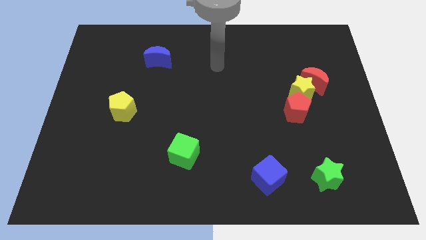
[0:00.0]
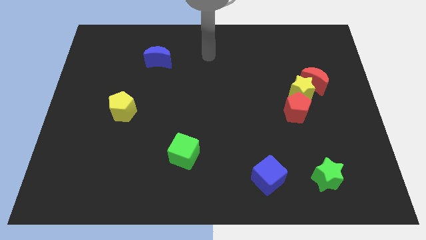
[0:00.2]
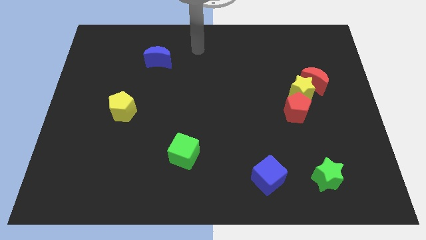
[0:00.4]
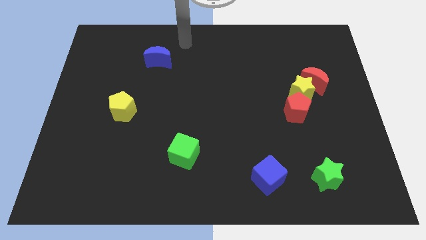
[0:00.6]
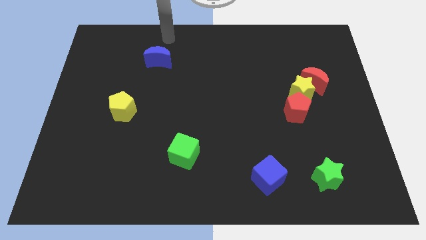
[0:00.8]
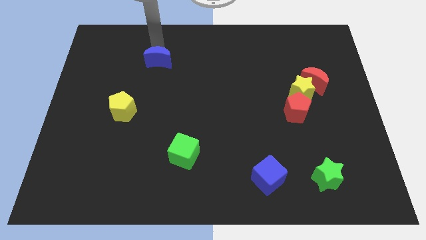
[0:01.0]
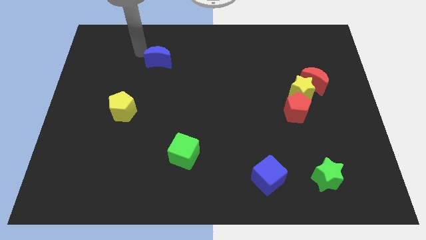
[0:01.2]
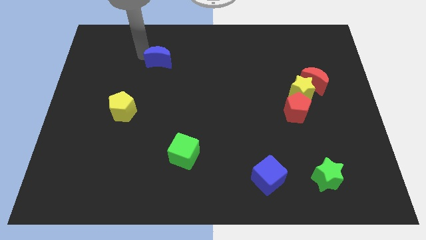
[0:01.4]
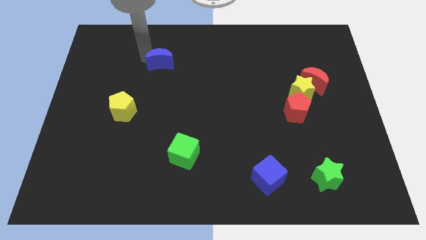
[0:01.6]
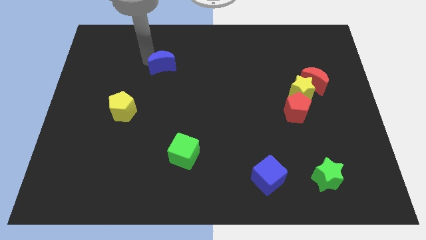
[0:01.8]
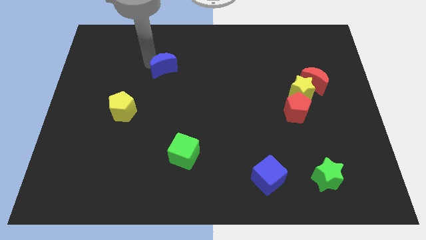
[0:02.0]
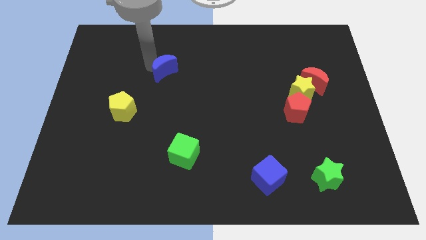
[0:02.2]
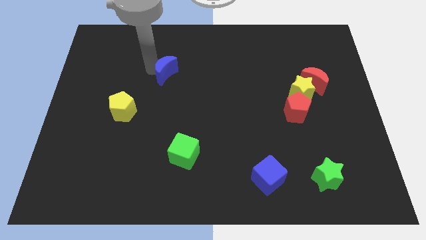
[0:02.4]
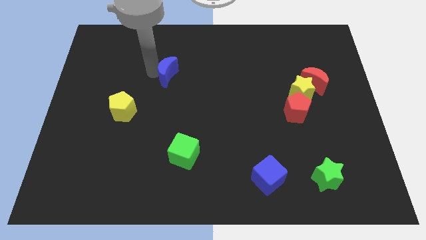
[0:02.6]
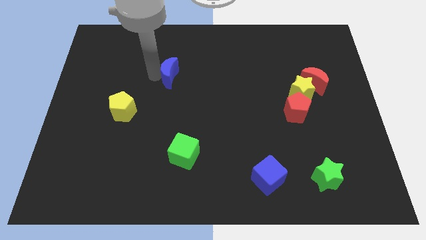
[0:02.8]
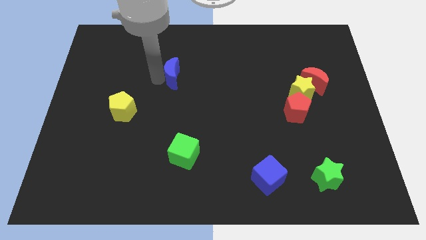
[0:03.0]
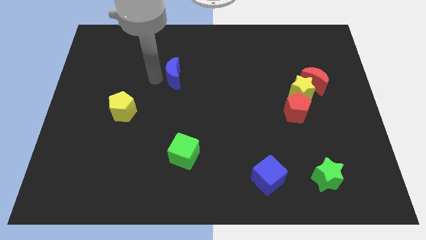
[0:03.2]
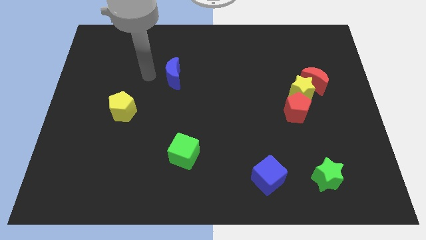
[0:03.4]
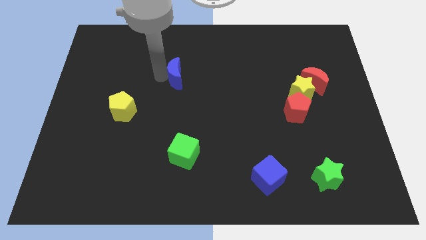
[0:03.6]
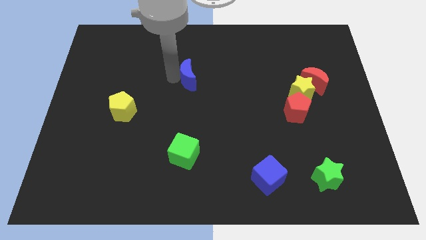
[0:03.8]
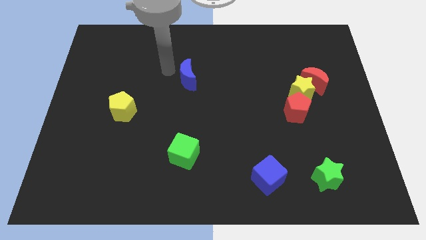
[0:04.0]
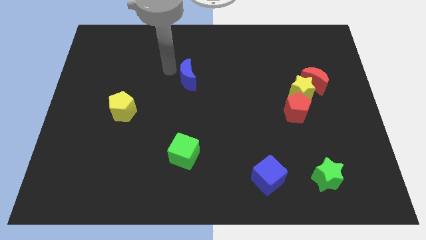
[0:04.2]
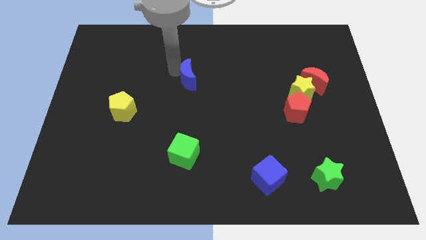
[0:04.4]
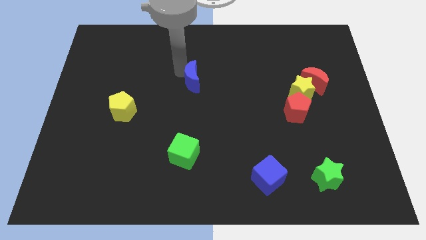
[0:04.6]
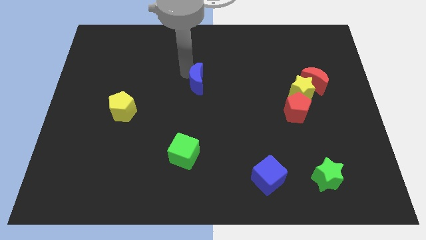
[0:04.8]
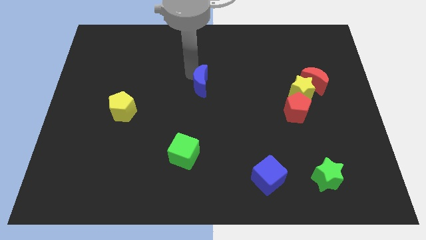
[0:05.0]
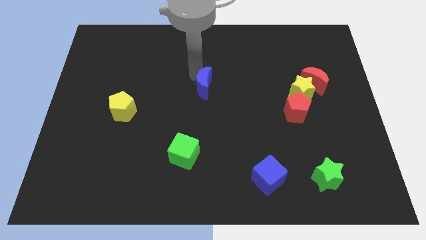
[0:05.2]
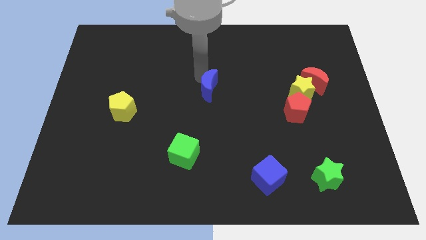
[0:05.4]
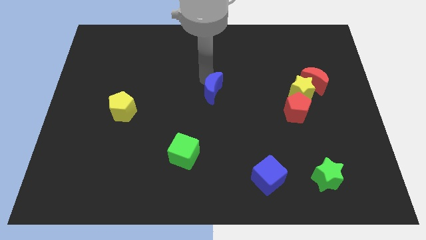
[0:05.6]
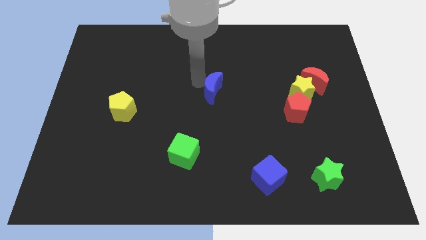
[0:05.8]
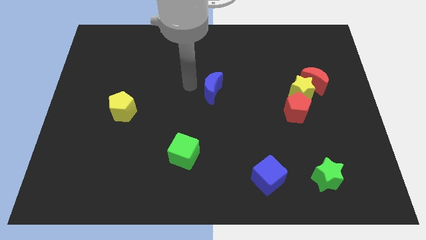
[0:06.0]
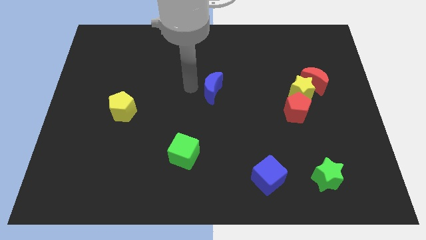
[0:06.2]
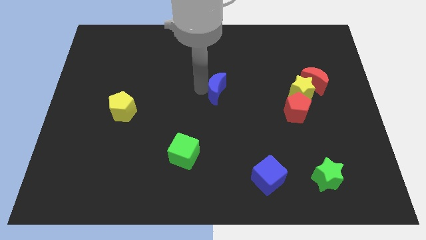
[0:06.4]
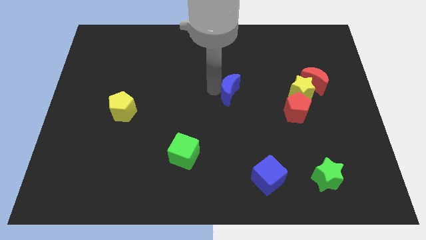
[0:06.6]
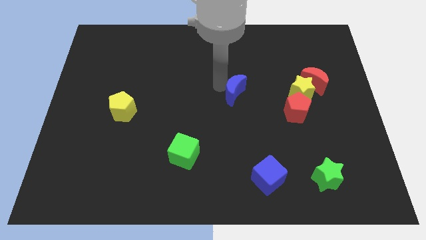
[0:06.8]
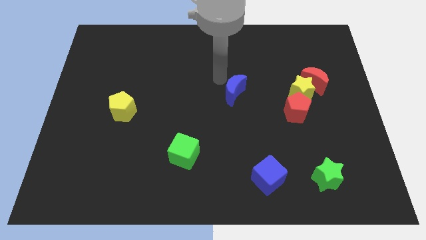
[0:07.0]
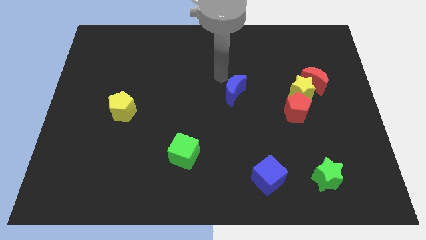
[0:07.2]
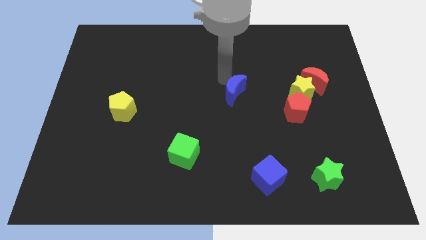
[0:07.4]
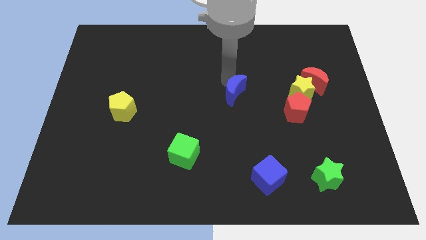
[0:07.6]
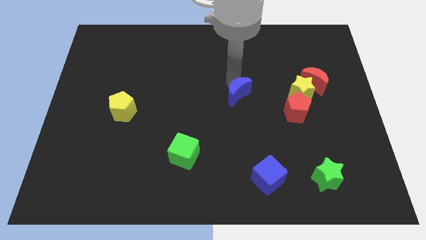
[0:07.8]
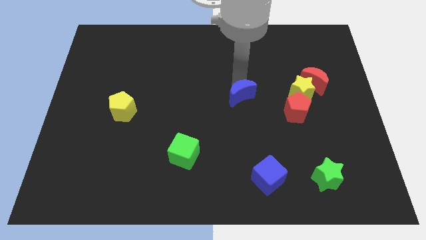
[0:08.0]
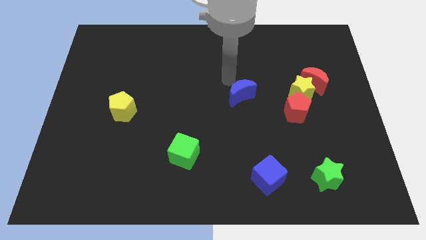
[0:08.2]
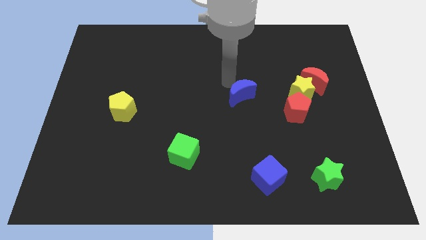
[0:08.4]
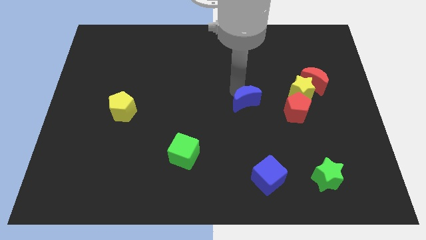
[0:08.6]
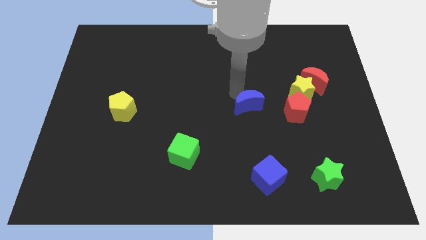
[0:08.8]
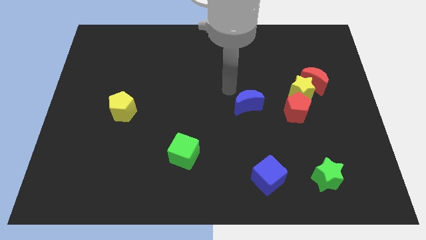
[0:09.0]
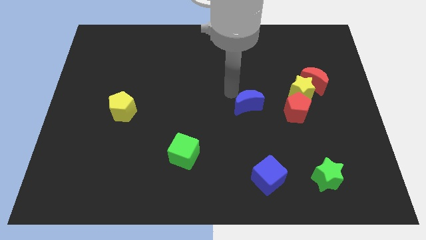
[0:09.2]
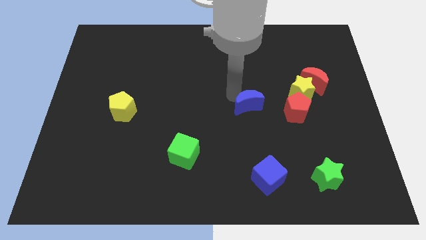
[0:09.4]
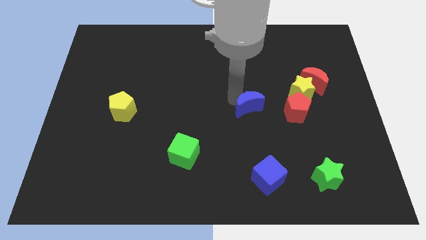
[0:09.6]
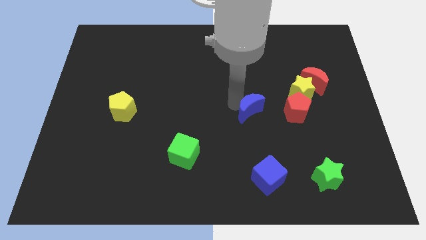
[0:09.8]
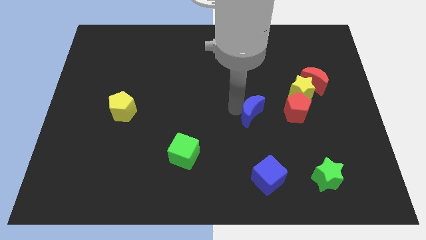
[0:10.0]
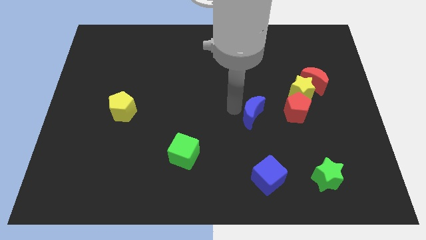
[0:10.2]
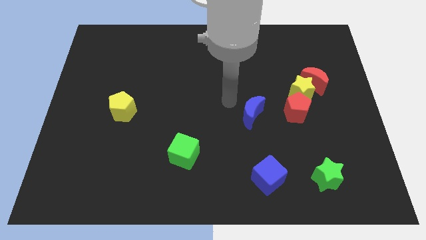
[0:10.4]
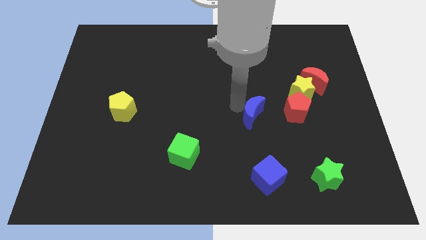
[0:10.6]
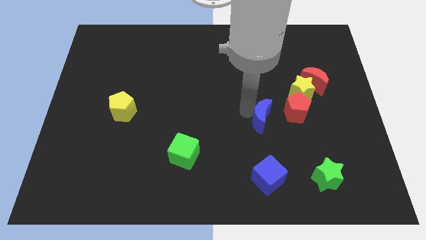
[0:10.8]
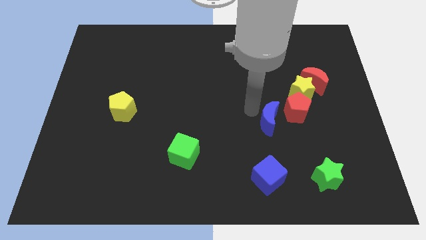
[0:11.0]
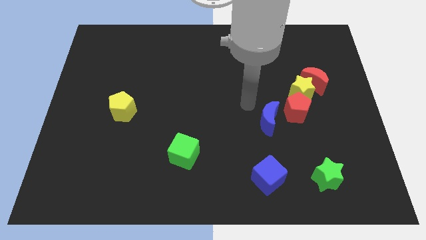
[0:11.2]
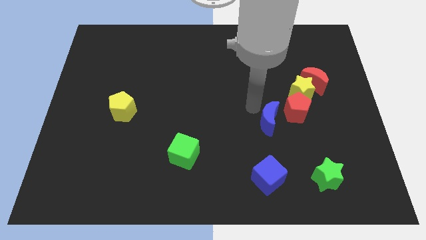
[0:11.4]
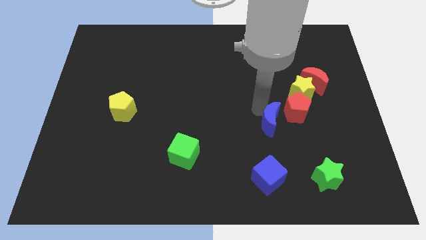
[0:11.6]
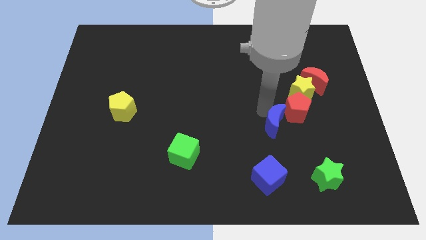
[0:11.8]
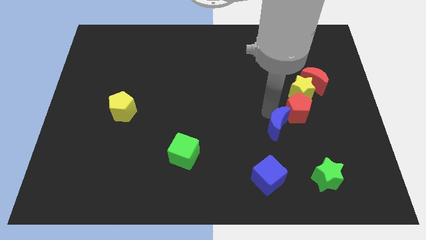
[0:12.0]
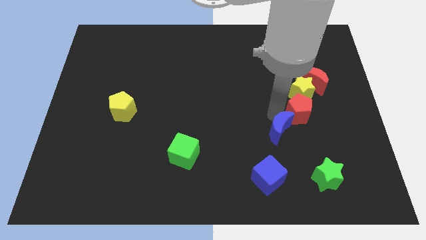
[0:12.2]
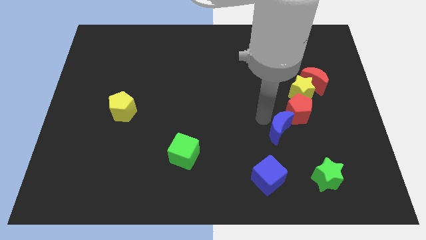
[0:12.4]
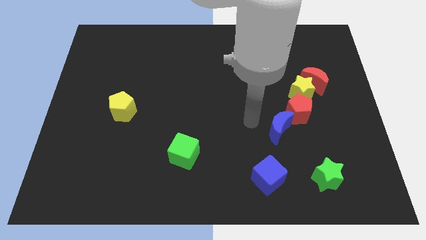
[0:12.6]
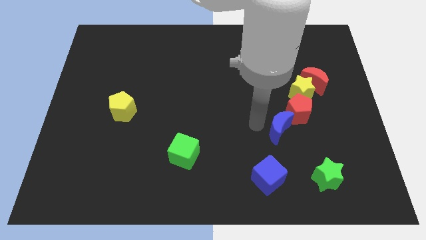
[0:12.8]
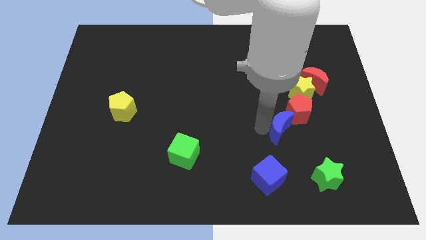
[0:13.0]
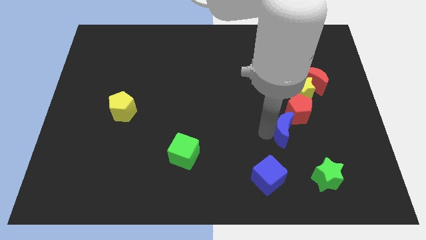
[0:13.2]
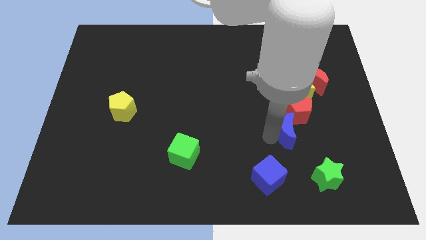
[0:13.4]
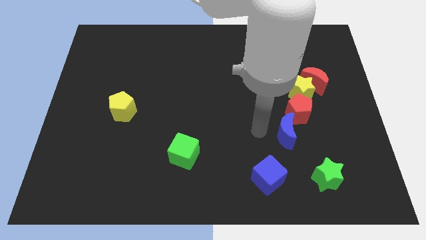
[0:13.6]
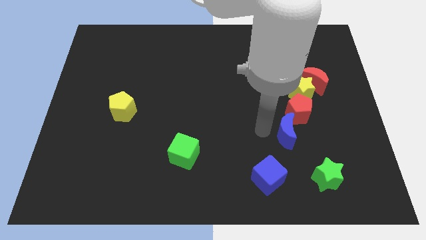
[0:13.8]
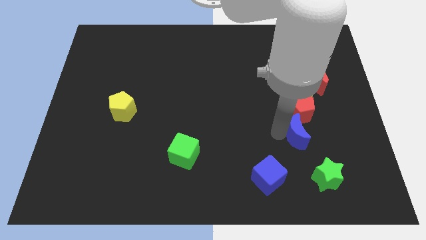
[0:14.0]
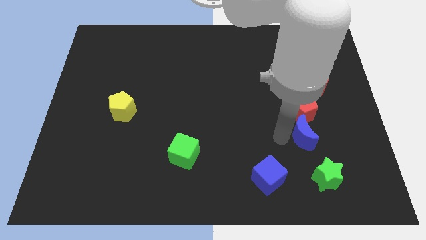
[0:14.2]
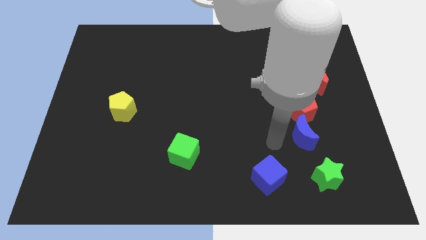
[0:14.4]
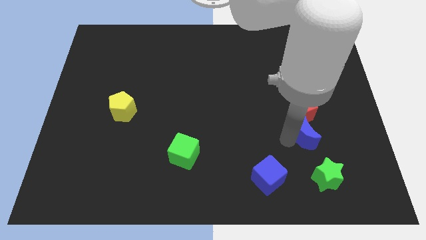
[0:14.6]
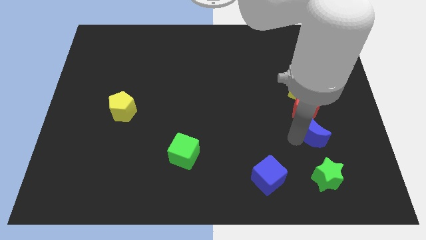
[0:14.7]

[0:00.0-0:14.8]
move the blue moon to the bottom right of the red pentagon
